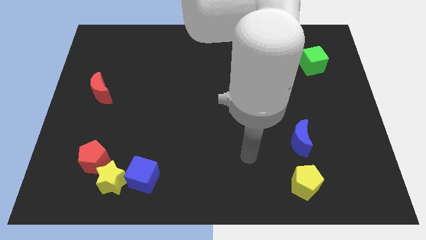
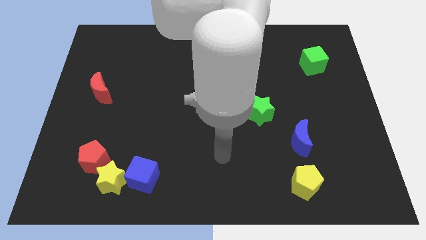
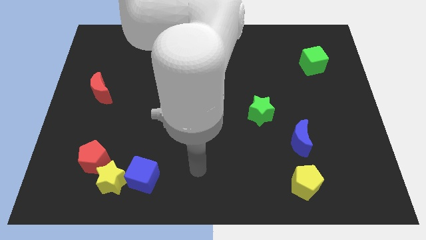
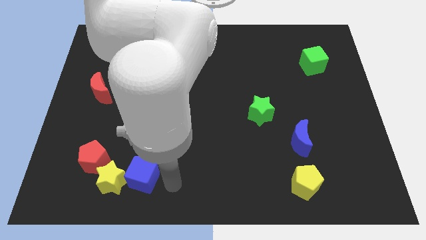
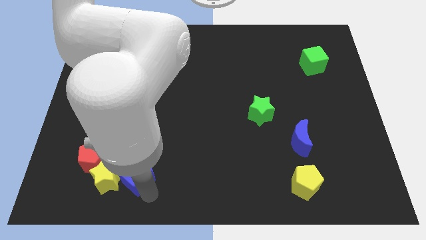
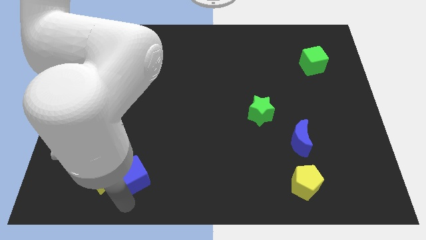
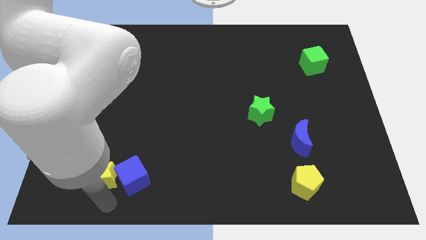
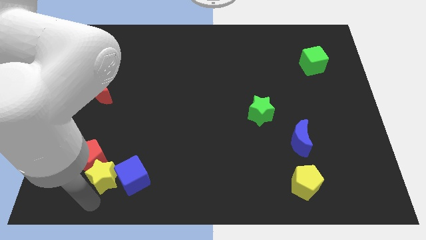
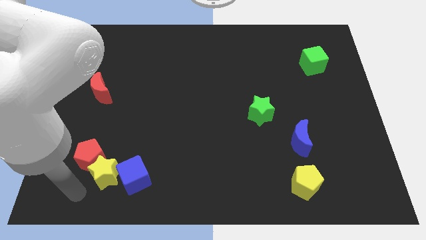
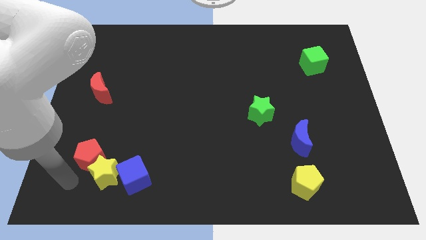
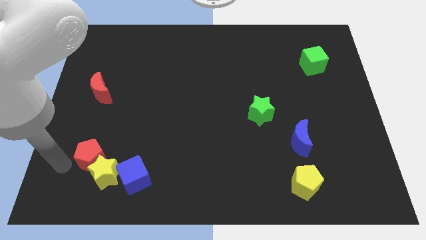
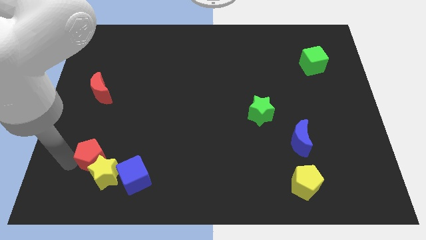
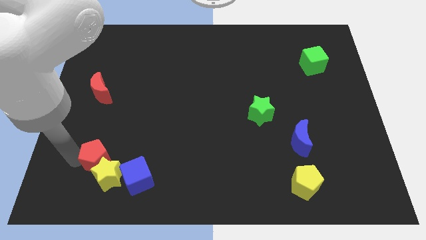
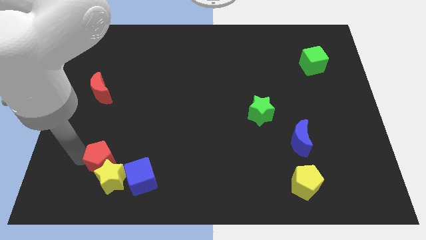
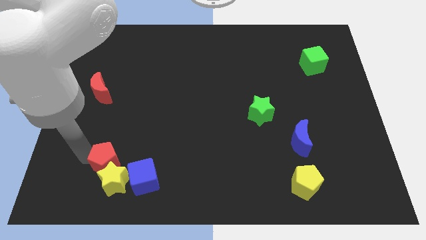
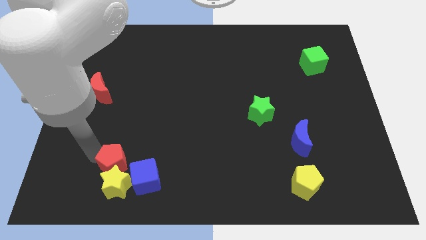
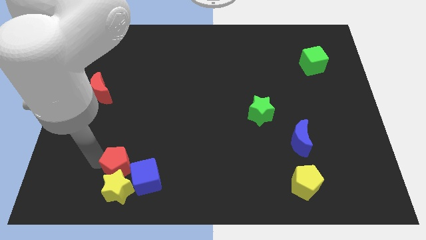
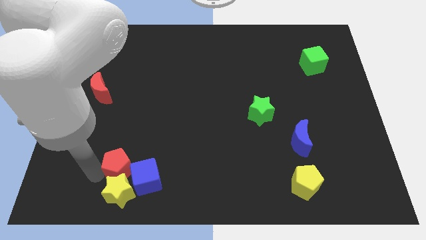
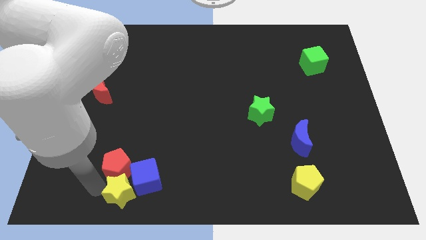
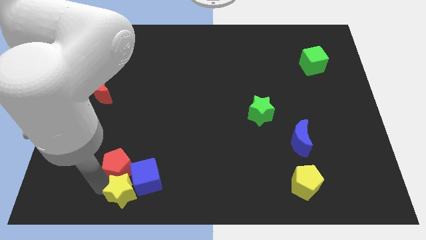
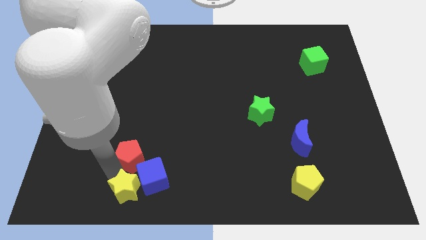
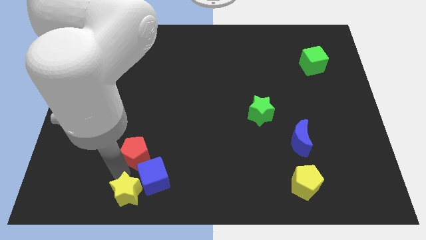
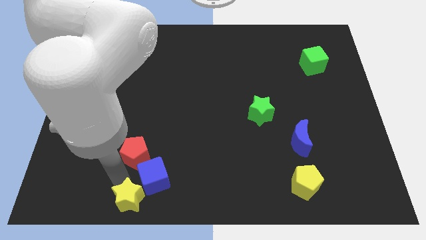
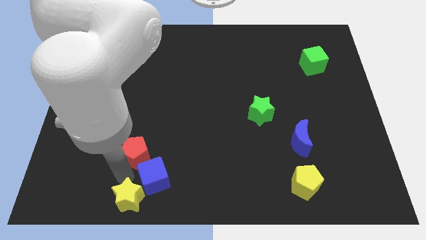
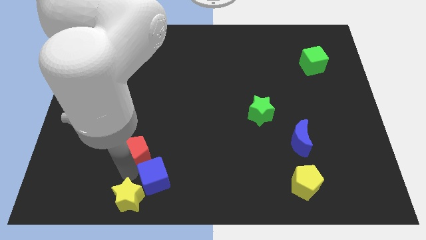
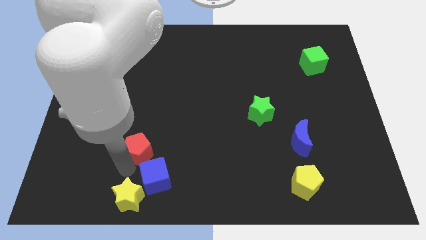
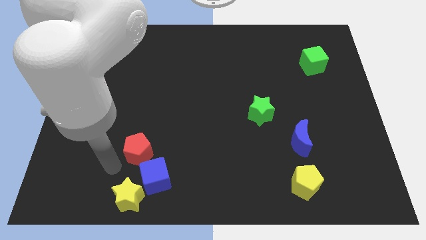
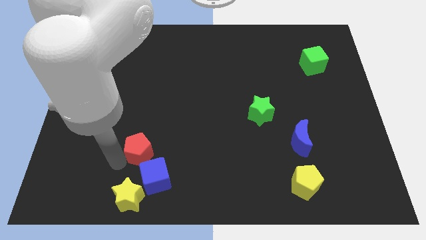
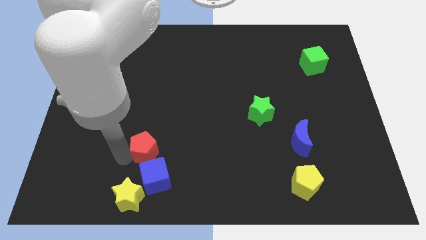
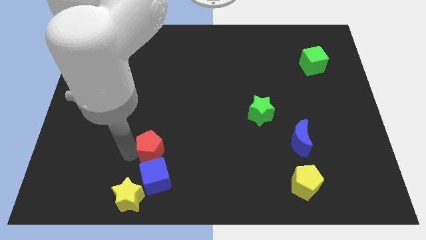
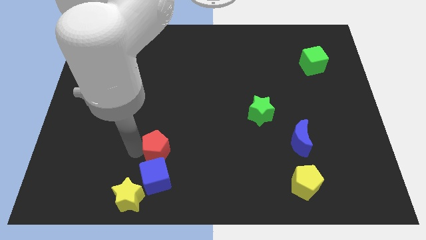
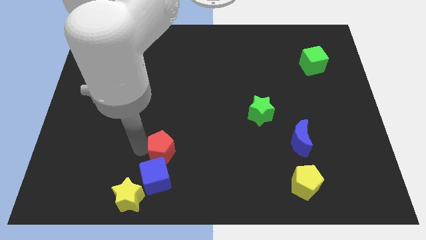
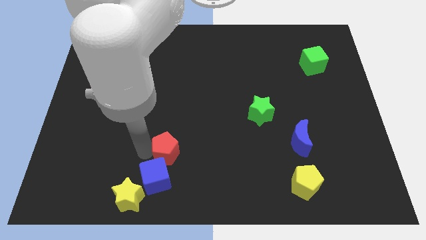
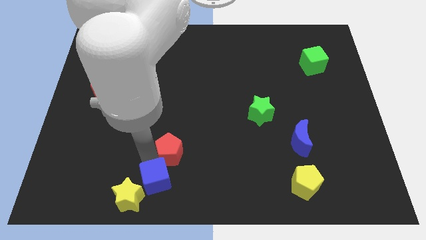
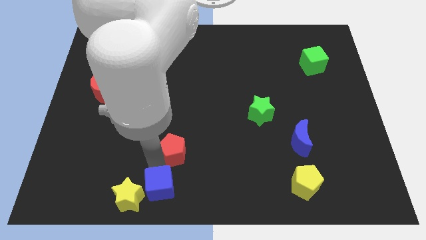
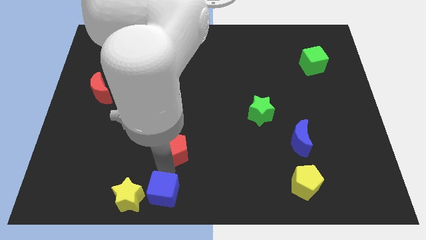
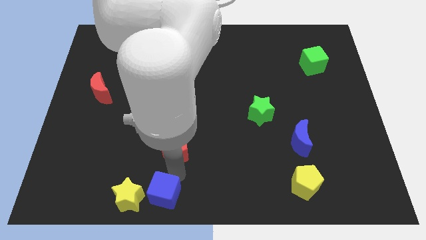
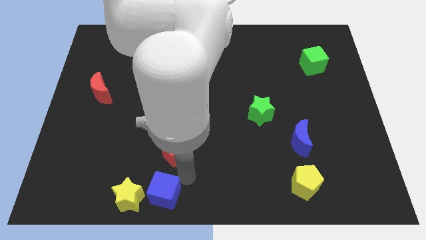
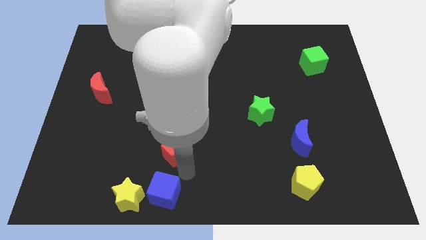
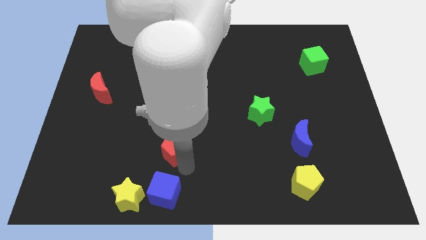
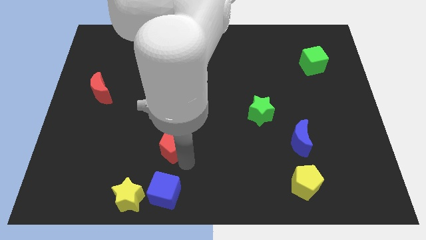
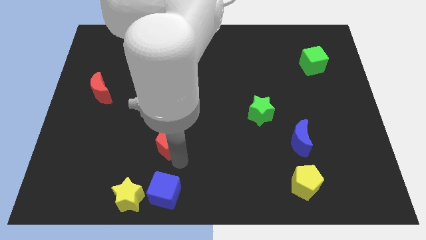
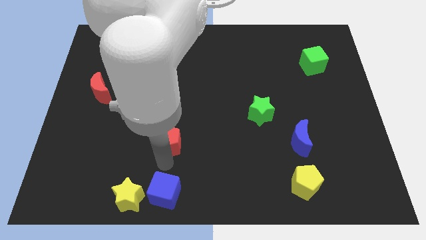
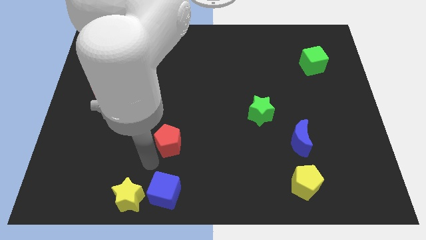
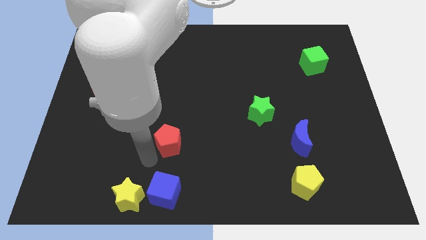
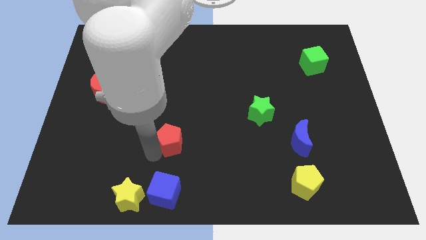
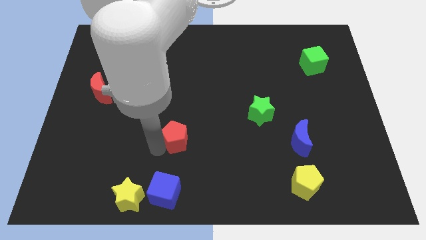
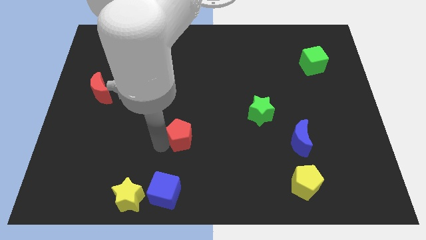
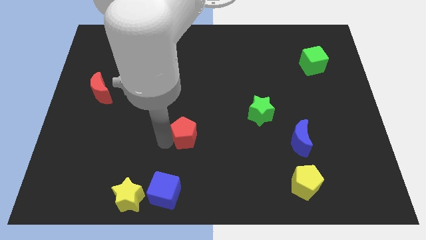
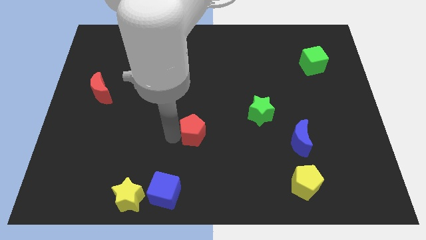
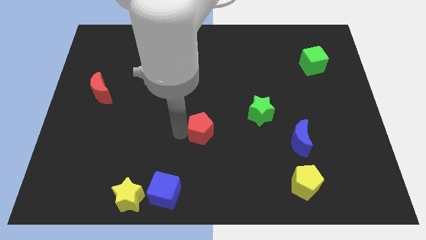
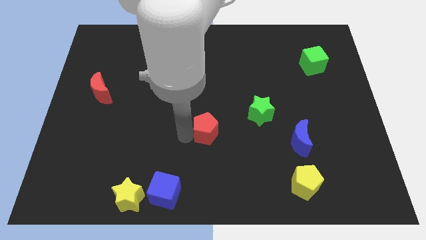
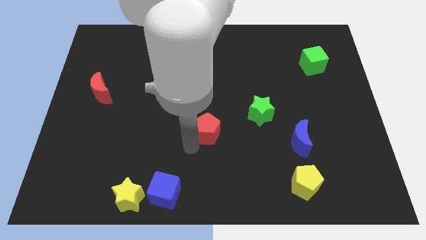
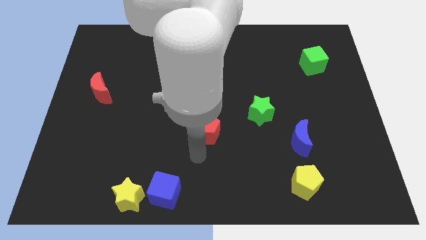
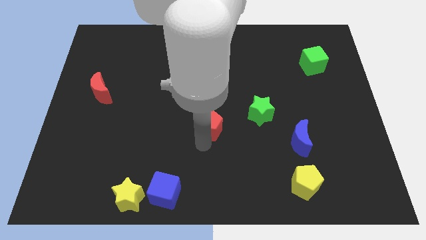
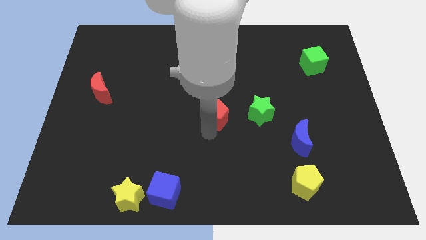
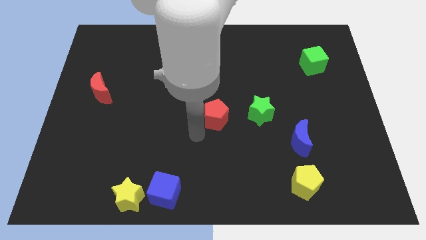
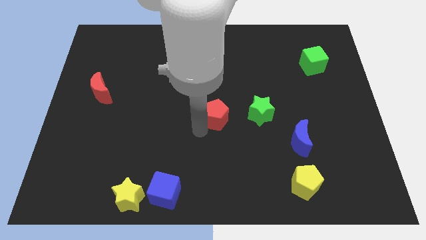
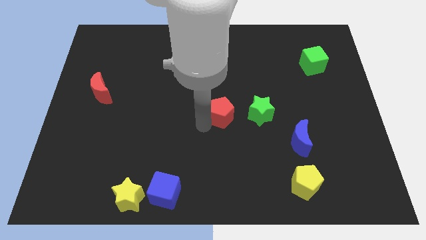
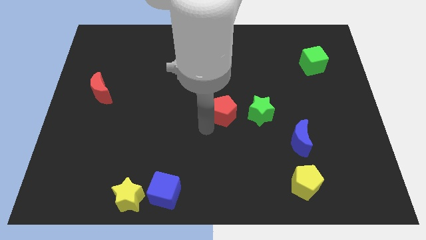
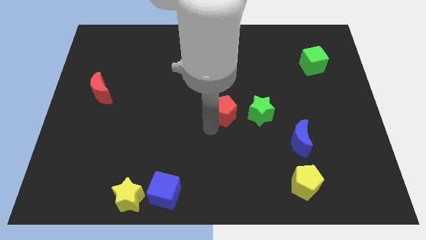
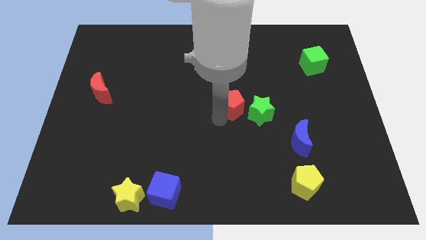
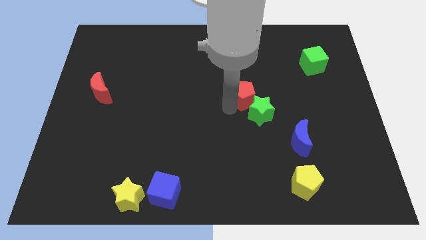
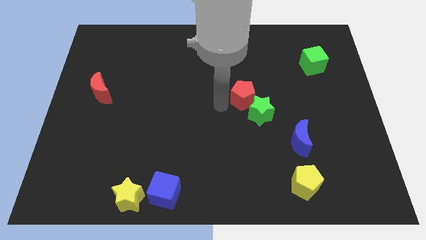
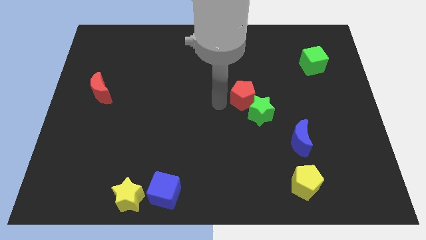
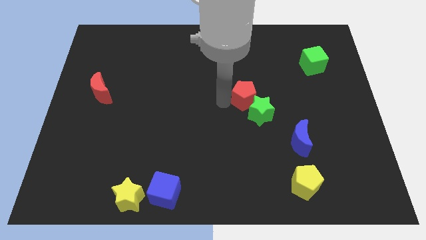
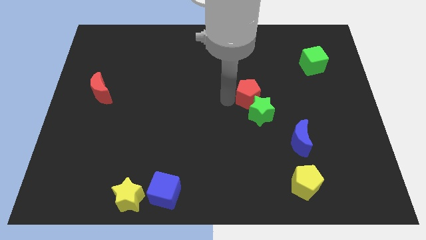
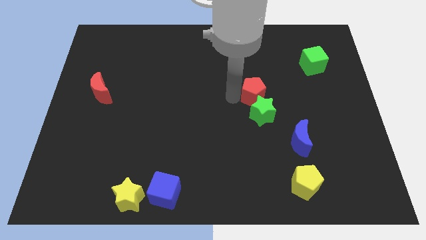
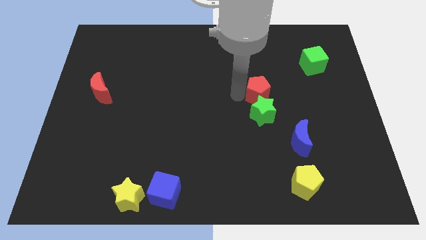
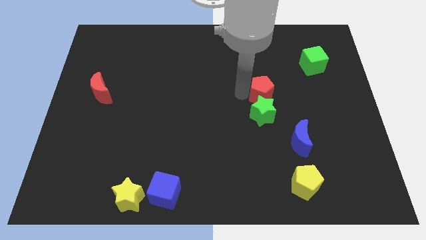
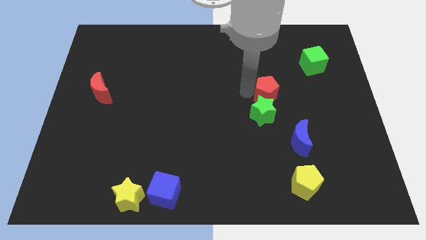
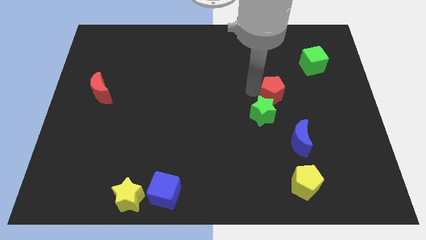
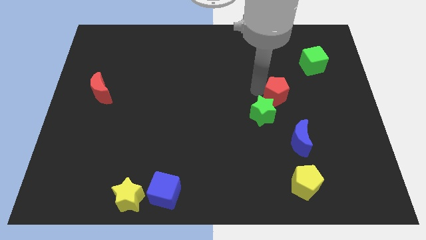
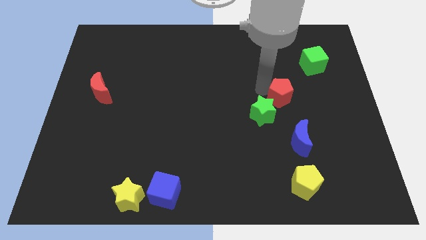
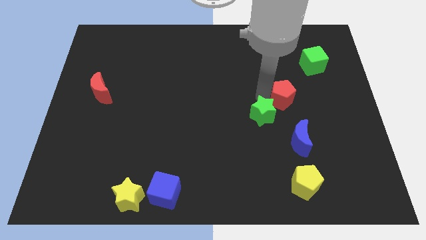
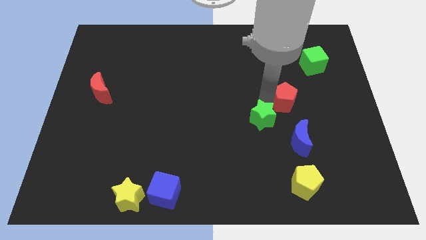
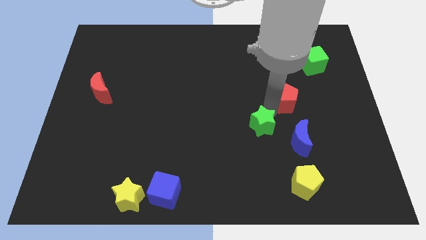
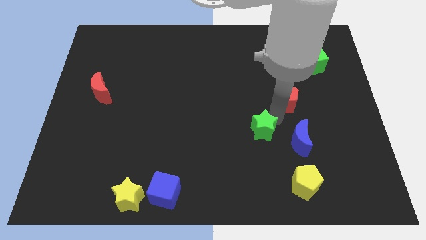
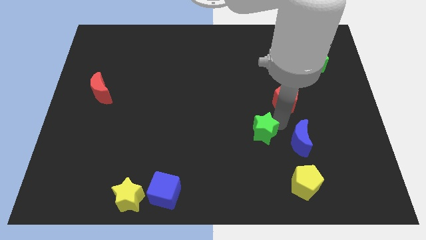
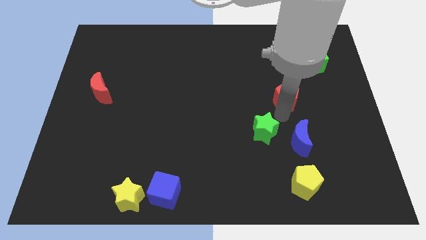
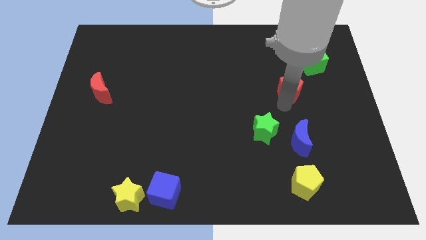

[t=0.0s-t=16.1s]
put the red pentagon diagonally down and to the left of the green cube
